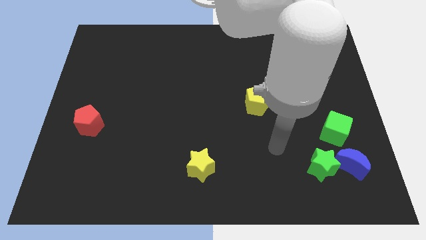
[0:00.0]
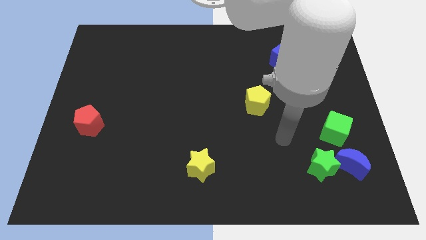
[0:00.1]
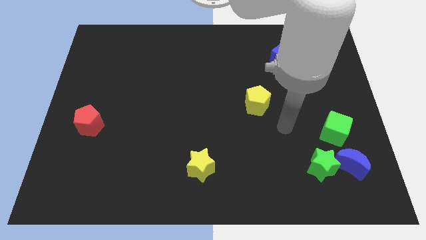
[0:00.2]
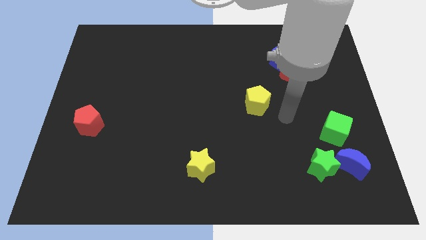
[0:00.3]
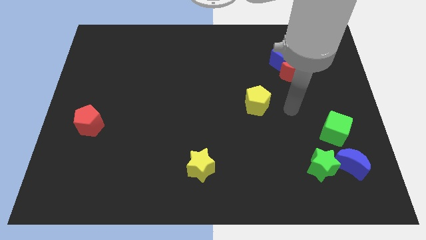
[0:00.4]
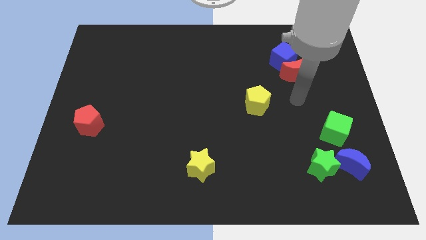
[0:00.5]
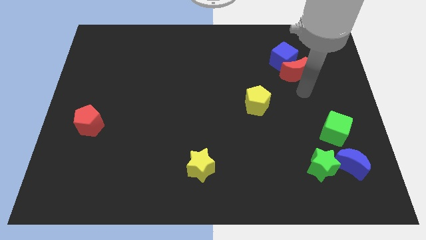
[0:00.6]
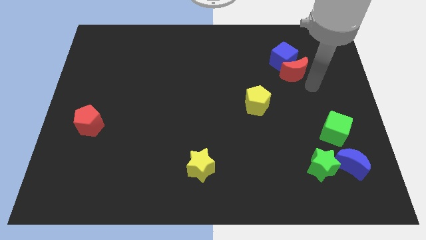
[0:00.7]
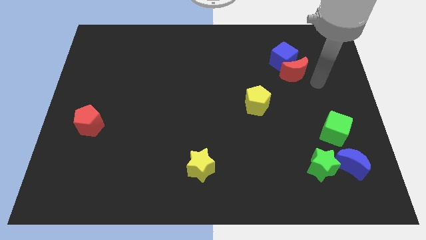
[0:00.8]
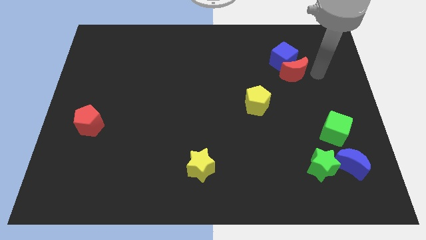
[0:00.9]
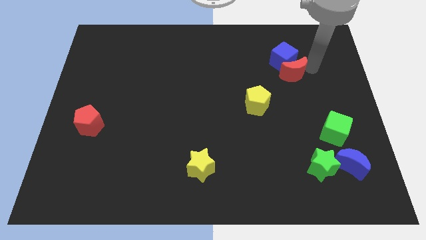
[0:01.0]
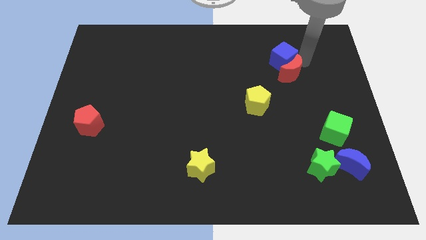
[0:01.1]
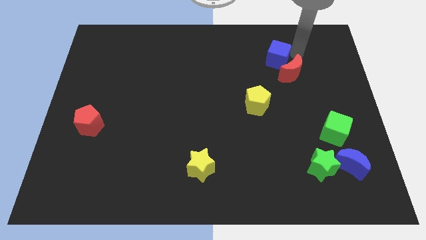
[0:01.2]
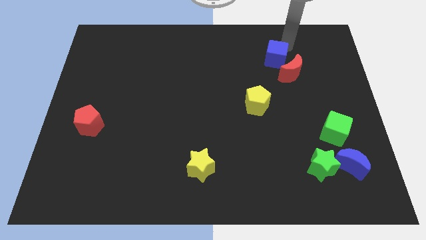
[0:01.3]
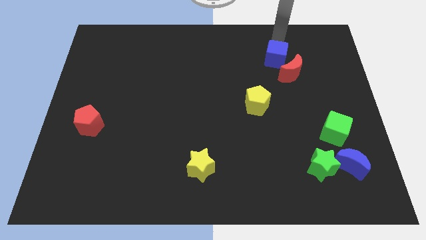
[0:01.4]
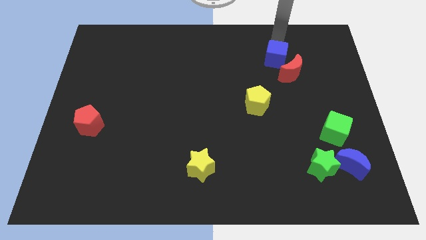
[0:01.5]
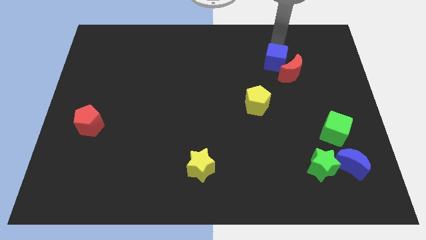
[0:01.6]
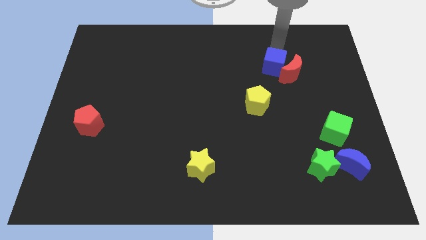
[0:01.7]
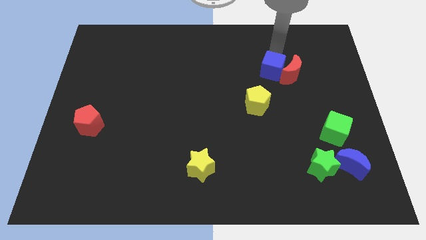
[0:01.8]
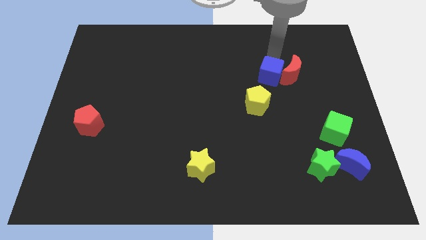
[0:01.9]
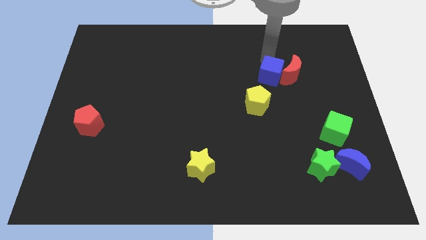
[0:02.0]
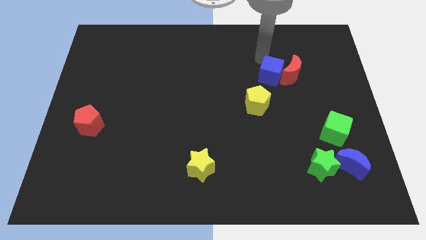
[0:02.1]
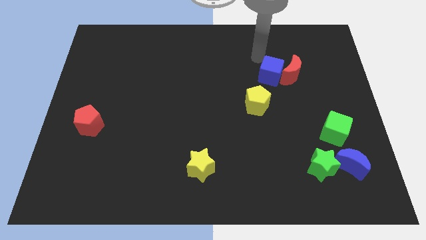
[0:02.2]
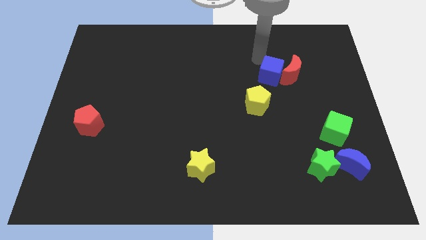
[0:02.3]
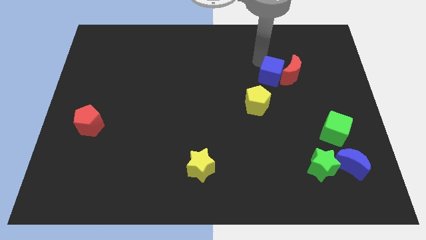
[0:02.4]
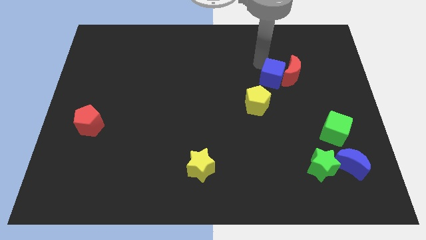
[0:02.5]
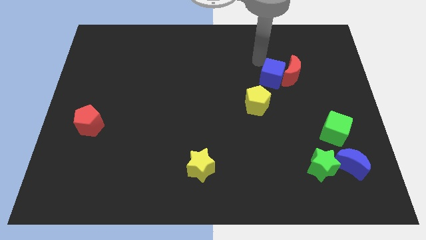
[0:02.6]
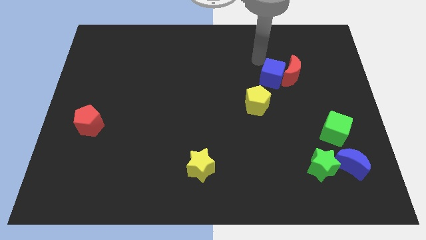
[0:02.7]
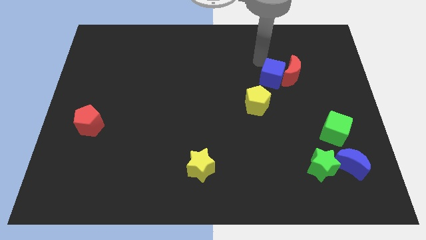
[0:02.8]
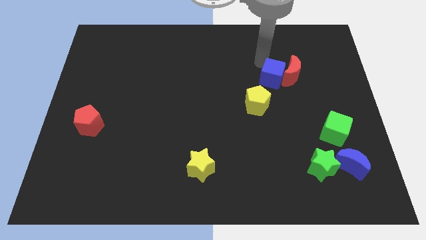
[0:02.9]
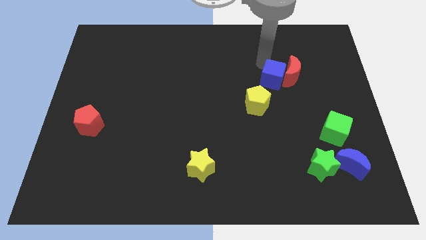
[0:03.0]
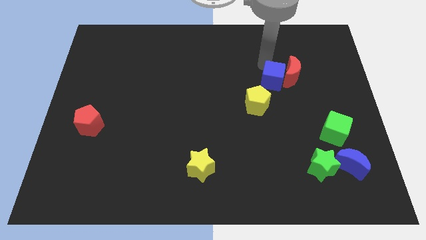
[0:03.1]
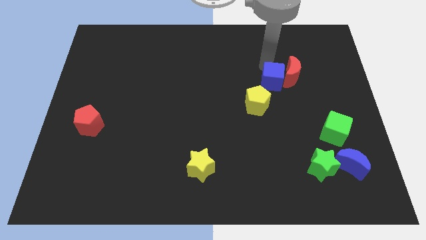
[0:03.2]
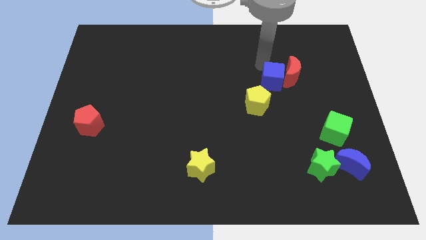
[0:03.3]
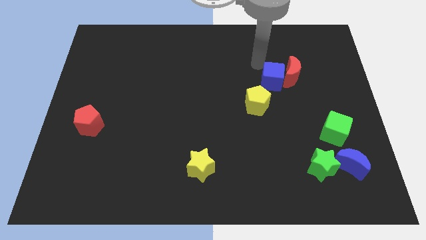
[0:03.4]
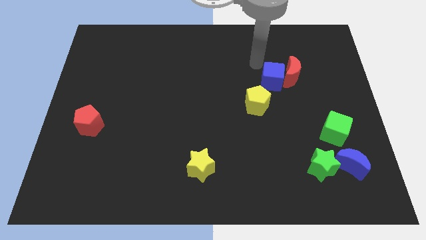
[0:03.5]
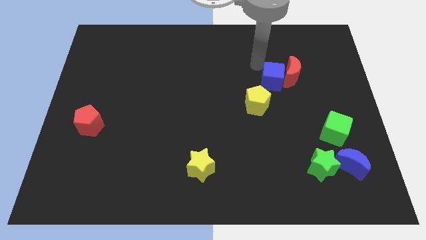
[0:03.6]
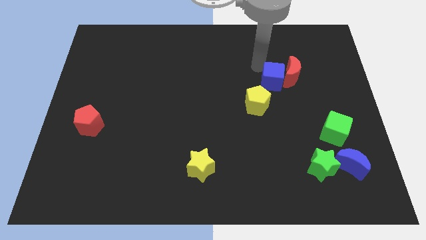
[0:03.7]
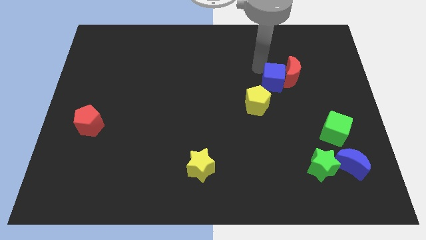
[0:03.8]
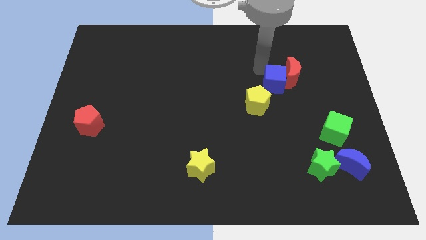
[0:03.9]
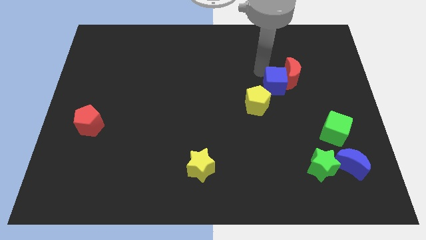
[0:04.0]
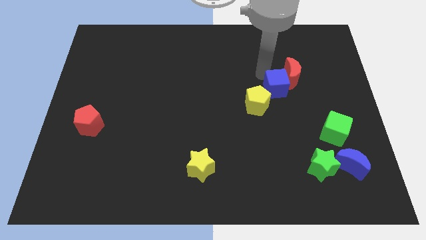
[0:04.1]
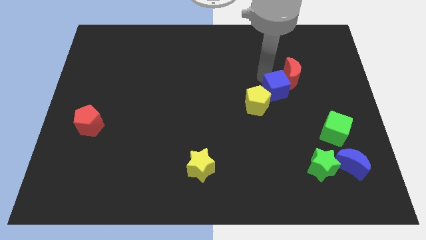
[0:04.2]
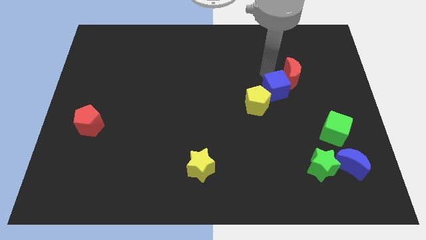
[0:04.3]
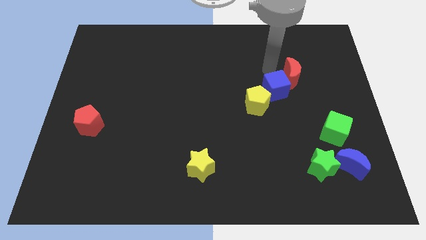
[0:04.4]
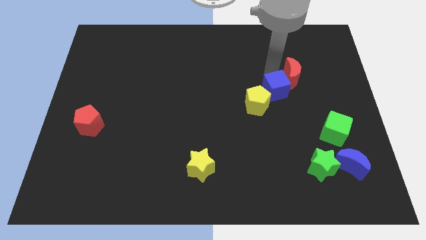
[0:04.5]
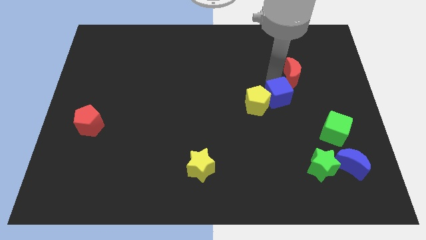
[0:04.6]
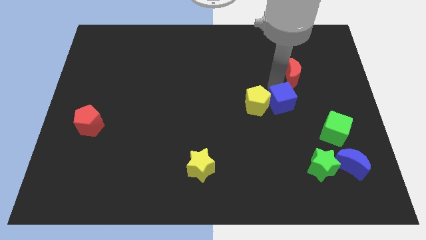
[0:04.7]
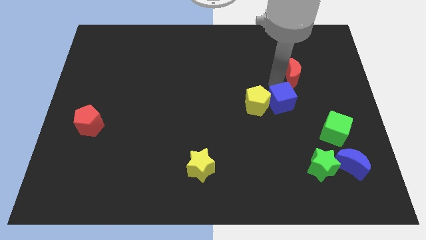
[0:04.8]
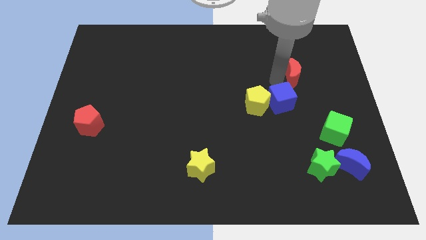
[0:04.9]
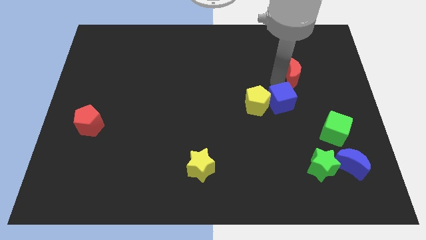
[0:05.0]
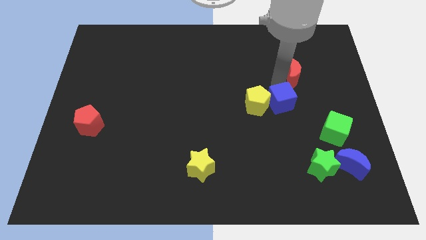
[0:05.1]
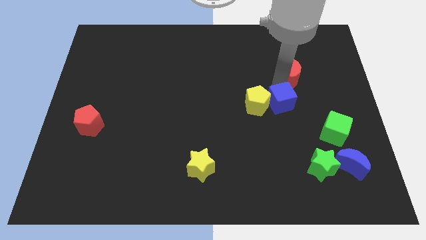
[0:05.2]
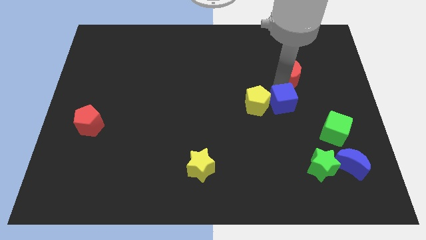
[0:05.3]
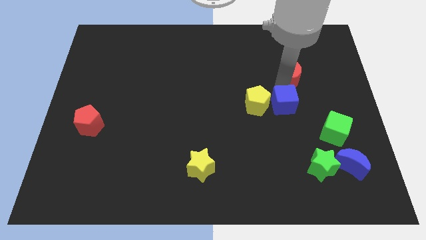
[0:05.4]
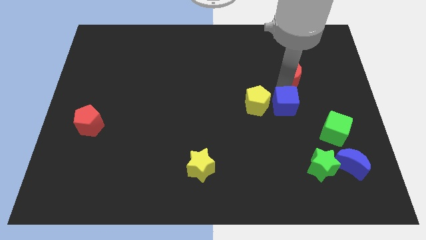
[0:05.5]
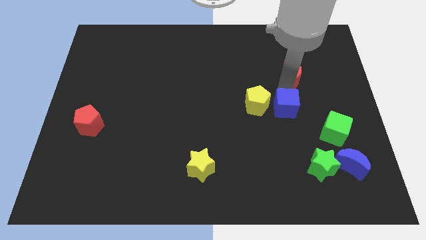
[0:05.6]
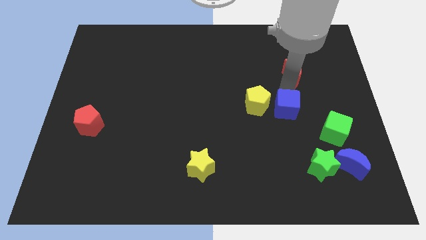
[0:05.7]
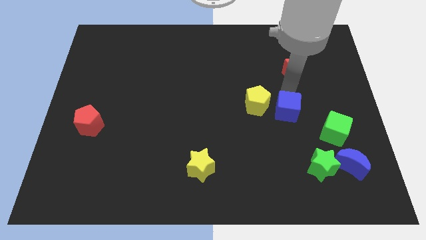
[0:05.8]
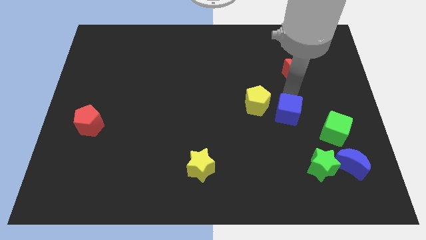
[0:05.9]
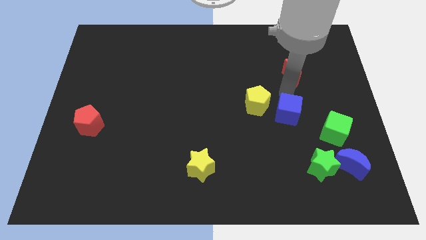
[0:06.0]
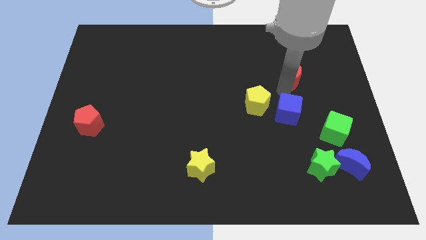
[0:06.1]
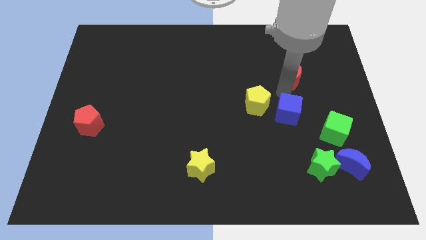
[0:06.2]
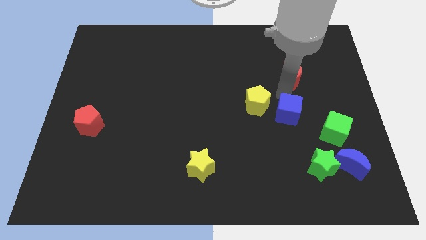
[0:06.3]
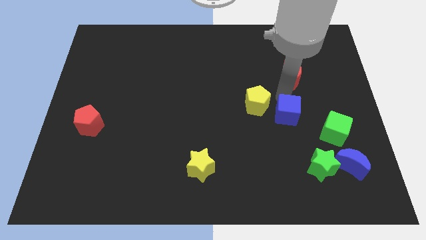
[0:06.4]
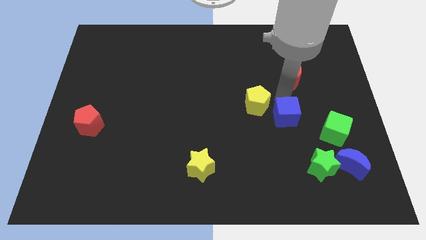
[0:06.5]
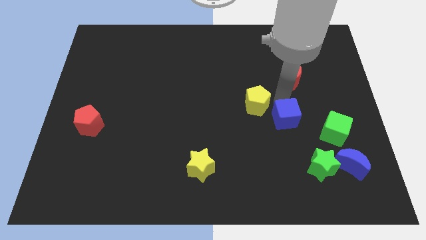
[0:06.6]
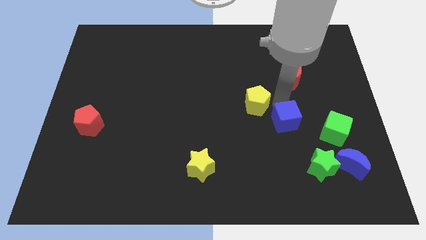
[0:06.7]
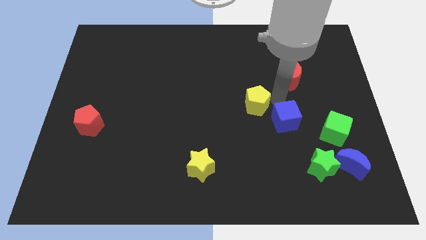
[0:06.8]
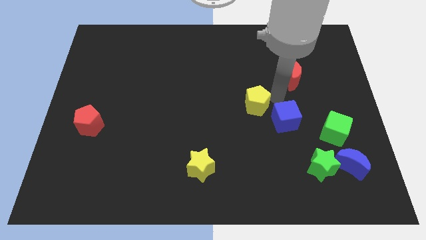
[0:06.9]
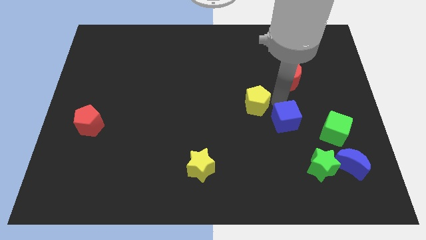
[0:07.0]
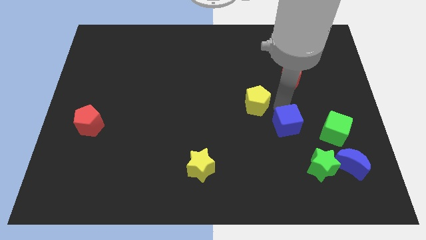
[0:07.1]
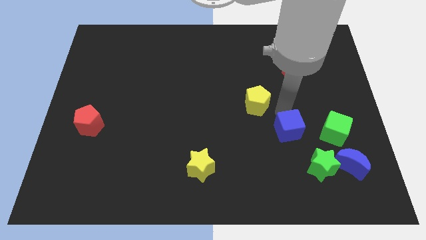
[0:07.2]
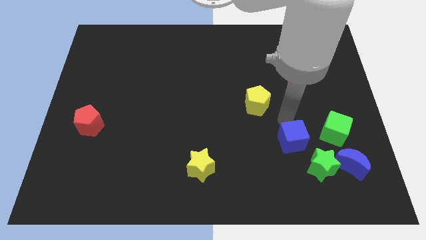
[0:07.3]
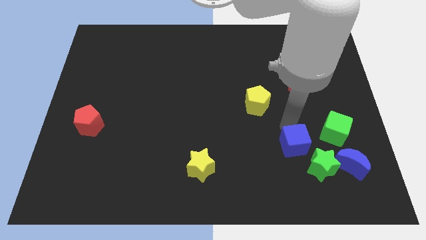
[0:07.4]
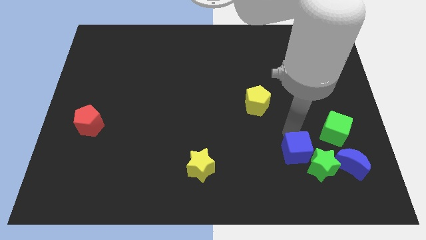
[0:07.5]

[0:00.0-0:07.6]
put the blue cube to the left side of the blue moon
